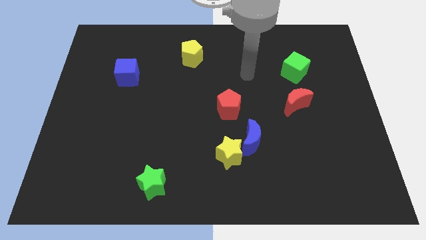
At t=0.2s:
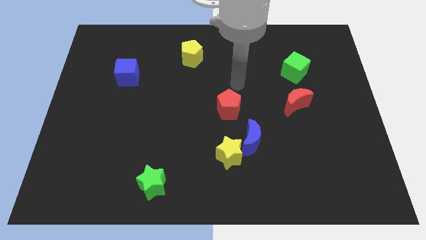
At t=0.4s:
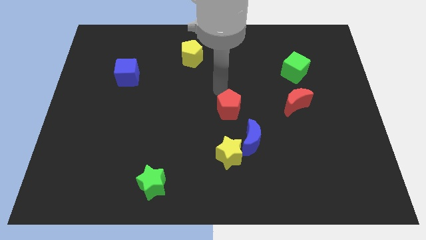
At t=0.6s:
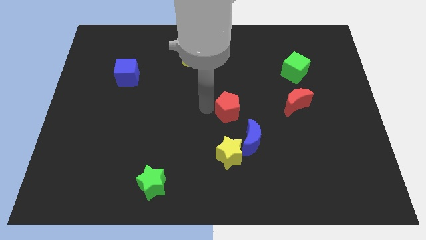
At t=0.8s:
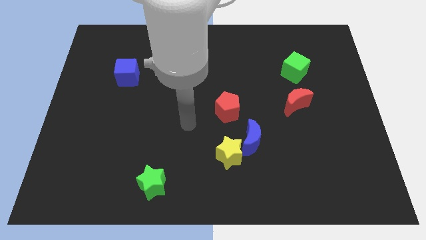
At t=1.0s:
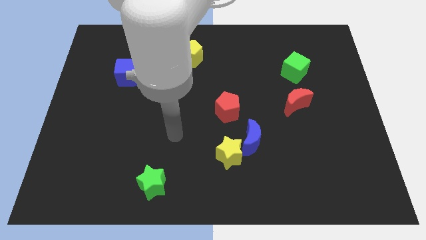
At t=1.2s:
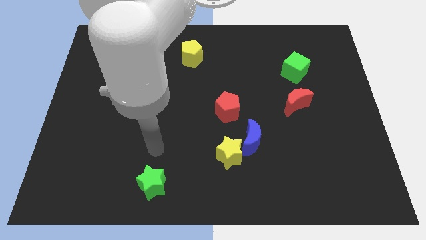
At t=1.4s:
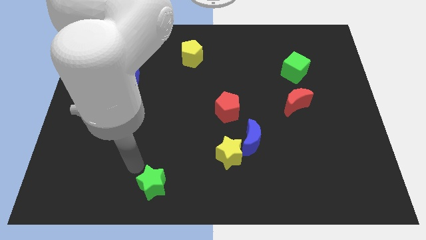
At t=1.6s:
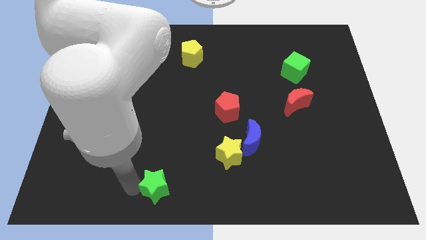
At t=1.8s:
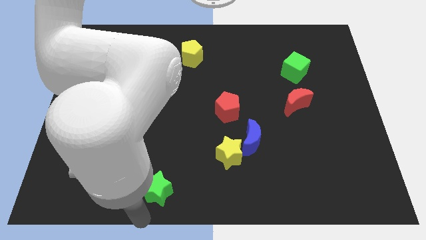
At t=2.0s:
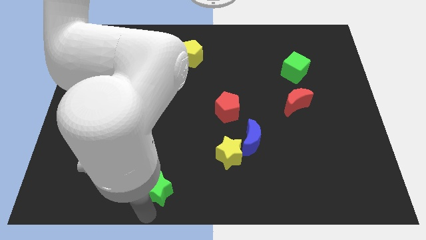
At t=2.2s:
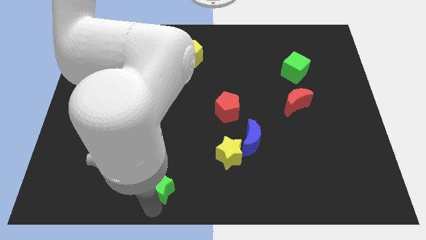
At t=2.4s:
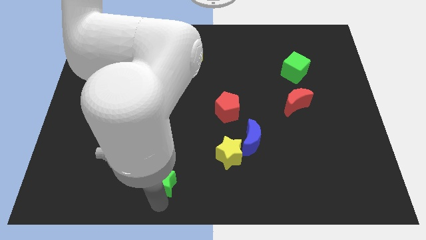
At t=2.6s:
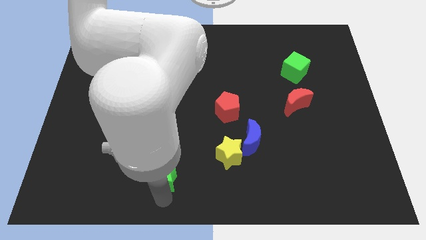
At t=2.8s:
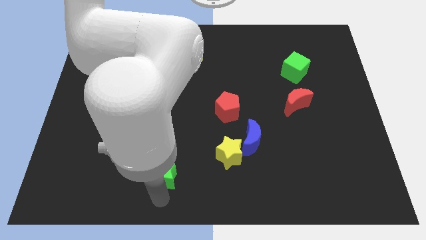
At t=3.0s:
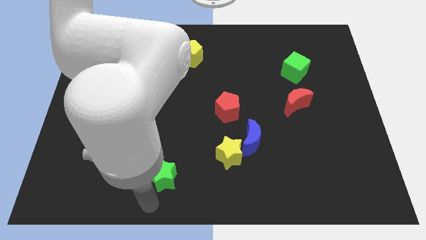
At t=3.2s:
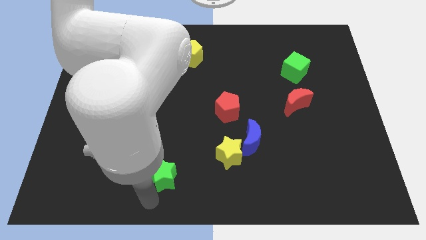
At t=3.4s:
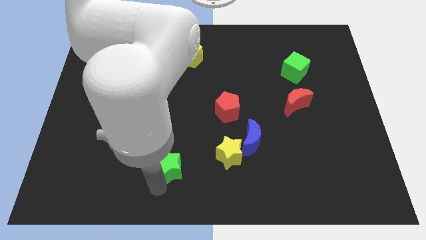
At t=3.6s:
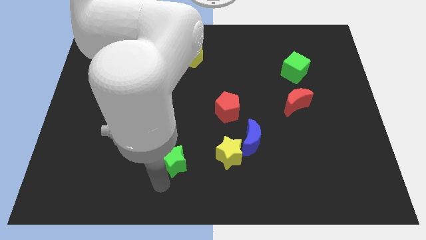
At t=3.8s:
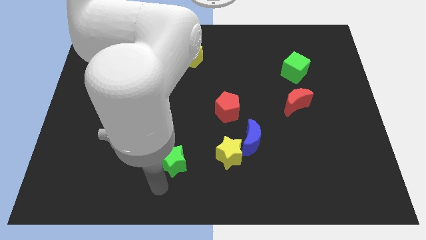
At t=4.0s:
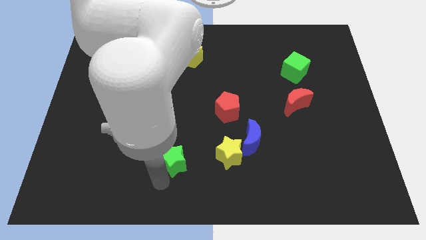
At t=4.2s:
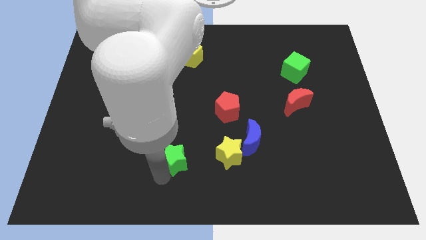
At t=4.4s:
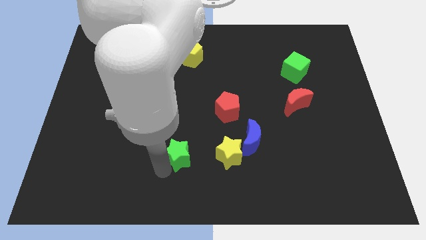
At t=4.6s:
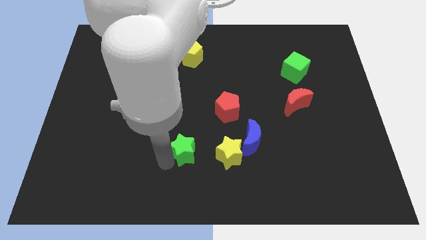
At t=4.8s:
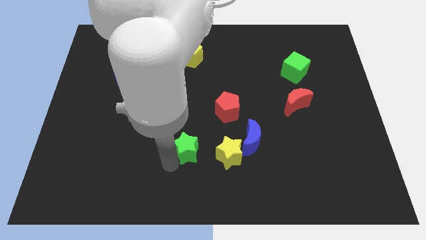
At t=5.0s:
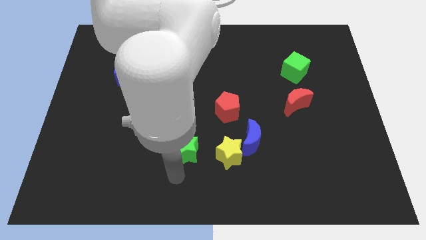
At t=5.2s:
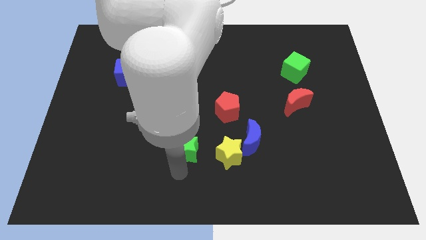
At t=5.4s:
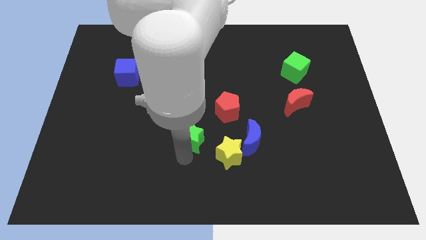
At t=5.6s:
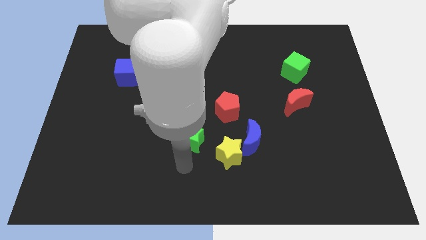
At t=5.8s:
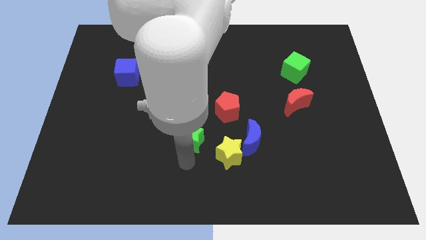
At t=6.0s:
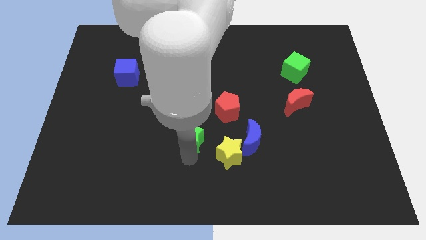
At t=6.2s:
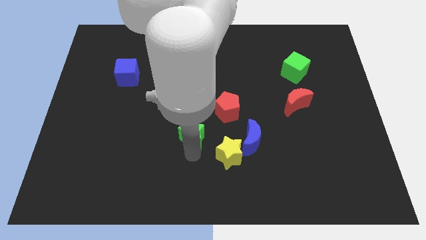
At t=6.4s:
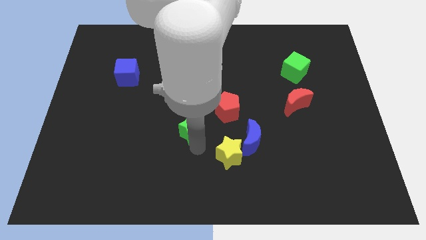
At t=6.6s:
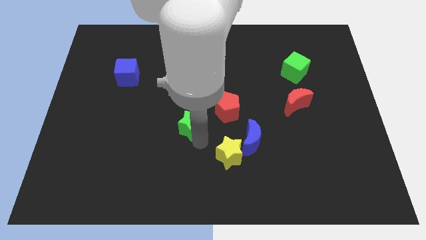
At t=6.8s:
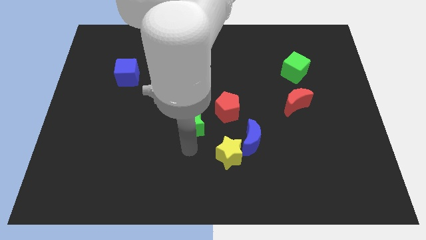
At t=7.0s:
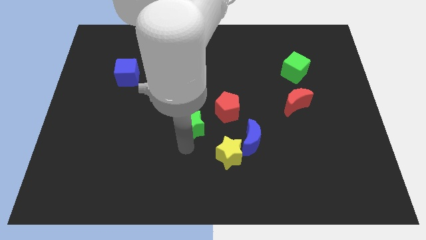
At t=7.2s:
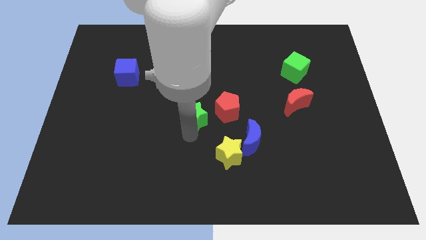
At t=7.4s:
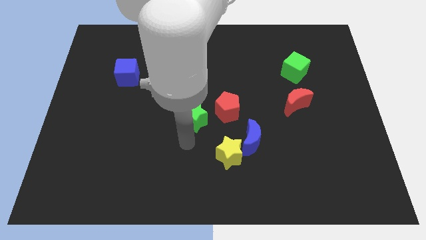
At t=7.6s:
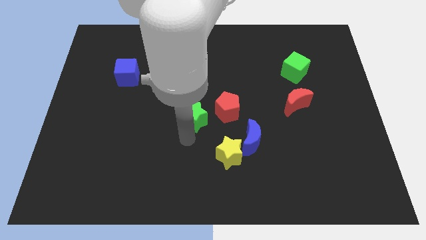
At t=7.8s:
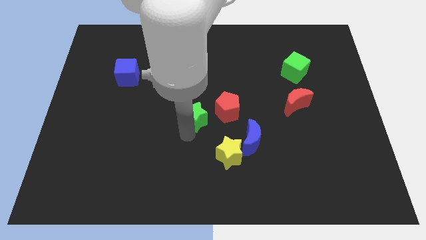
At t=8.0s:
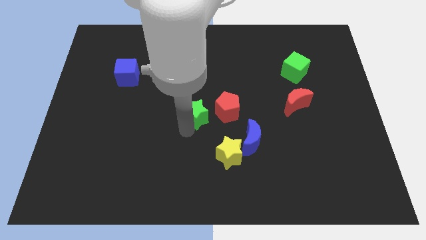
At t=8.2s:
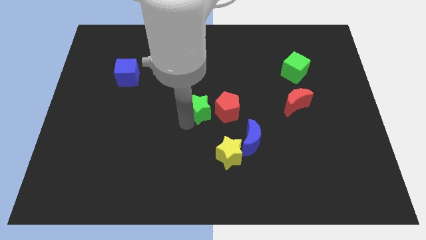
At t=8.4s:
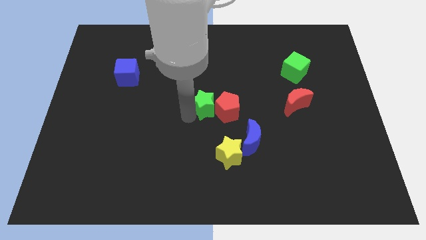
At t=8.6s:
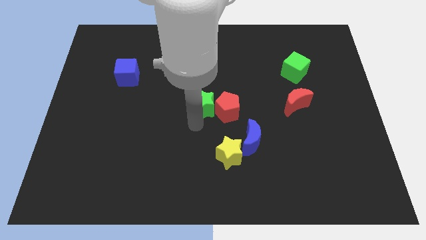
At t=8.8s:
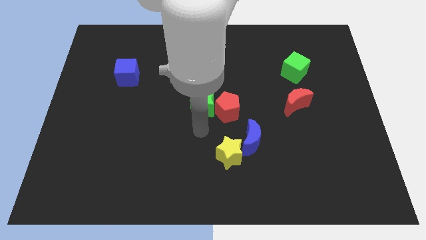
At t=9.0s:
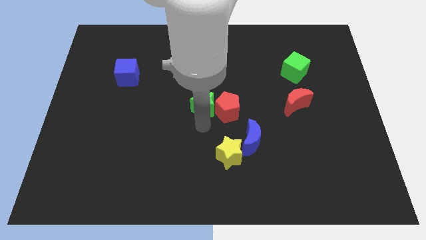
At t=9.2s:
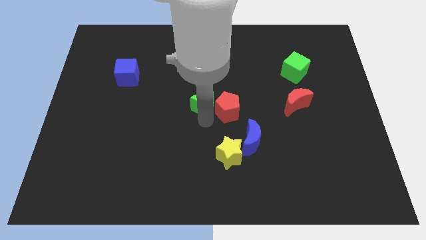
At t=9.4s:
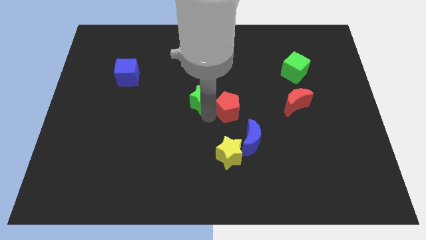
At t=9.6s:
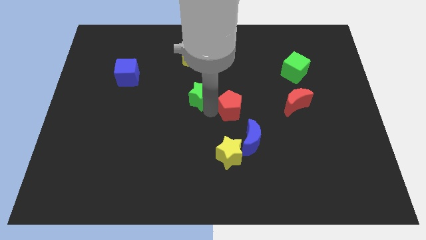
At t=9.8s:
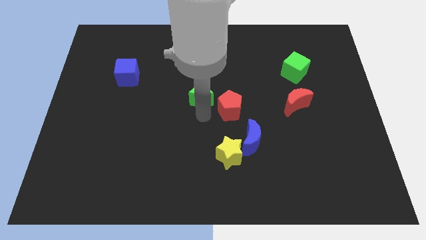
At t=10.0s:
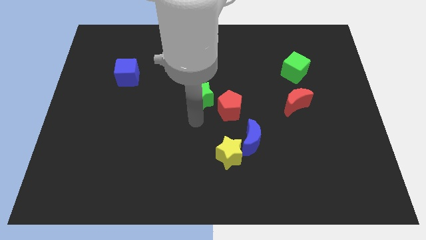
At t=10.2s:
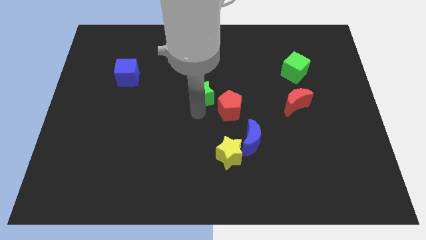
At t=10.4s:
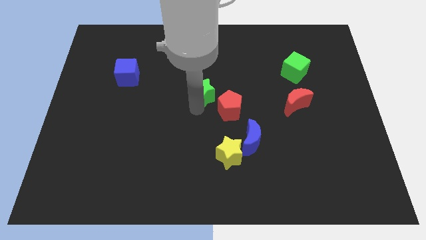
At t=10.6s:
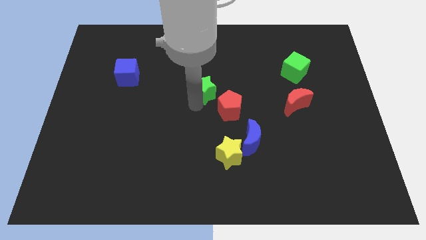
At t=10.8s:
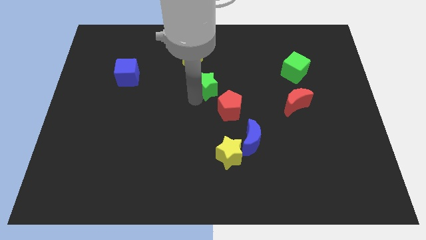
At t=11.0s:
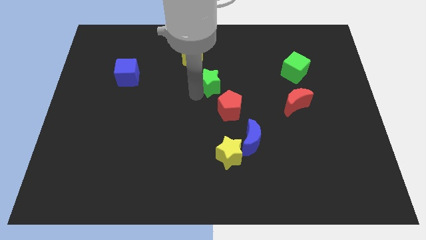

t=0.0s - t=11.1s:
put the green star diagonally down and to the right of the yellow pentagon

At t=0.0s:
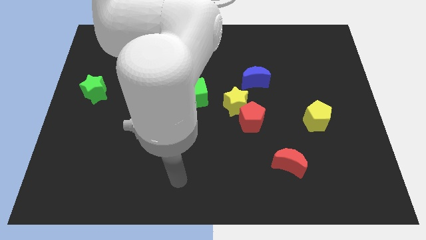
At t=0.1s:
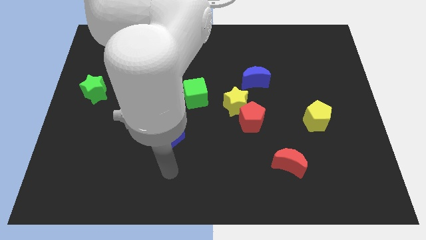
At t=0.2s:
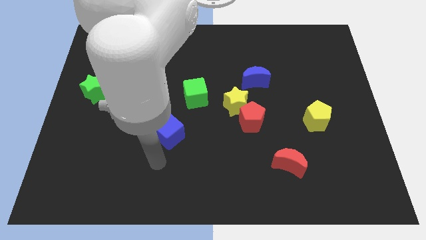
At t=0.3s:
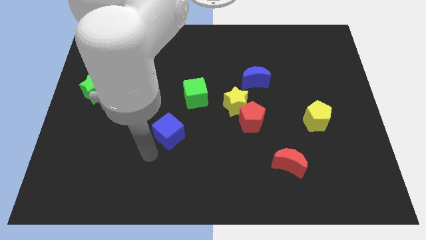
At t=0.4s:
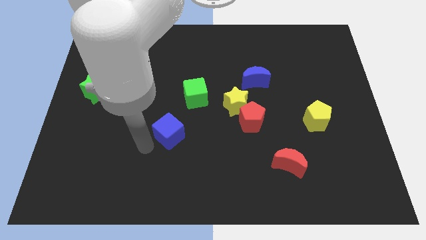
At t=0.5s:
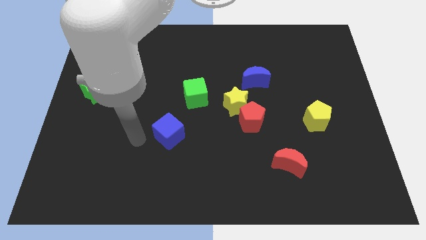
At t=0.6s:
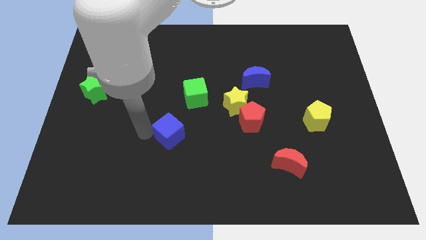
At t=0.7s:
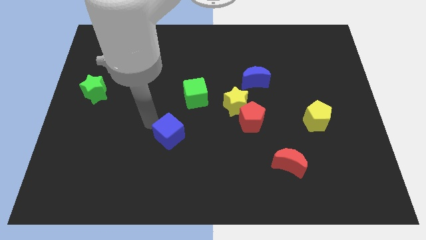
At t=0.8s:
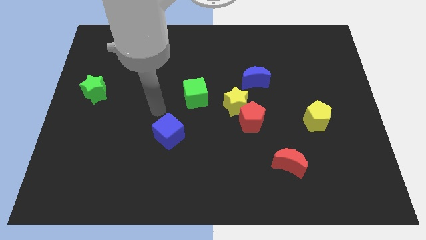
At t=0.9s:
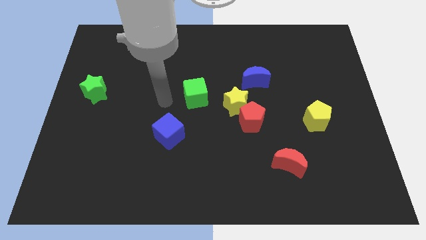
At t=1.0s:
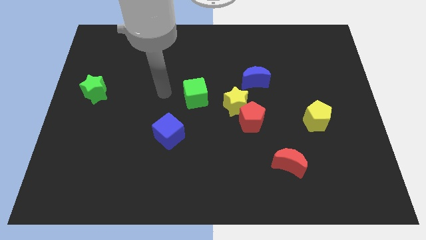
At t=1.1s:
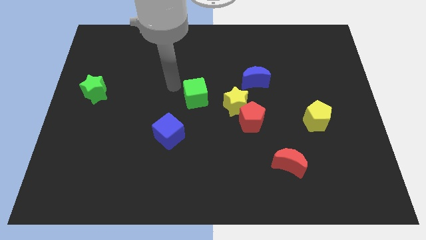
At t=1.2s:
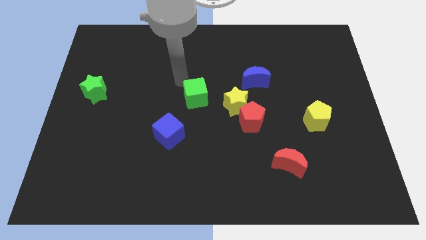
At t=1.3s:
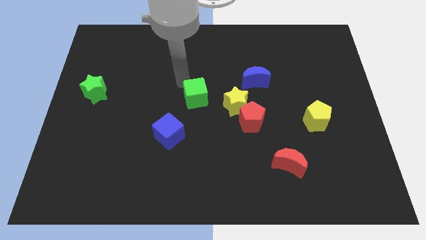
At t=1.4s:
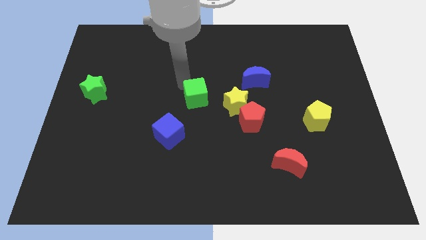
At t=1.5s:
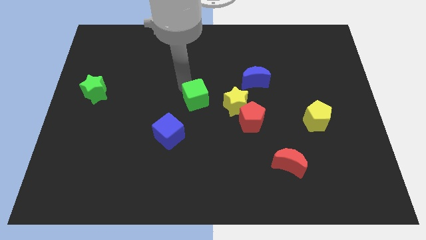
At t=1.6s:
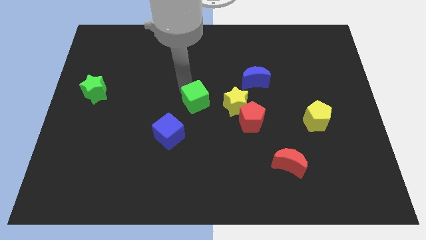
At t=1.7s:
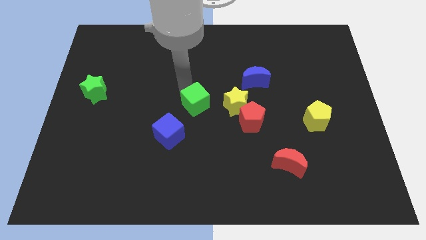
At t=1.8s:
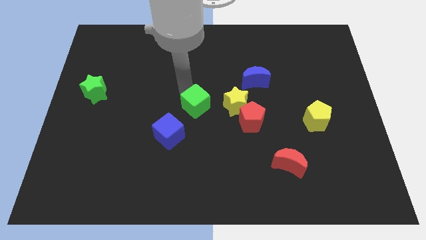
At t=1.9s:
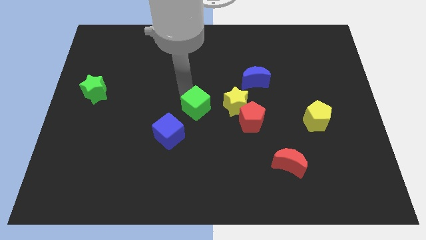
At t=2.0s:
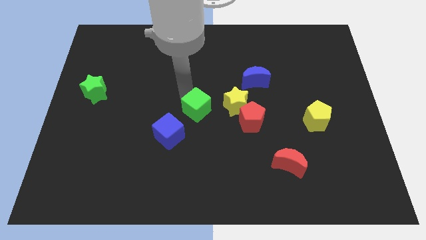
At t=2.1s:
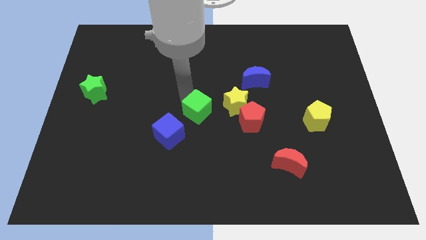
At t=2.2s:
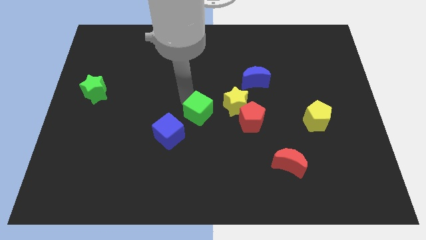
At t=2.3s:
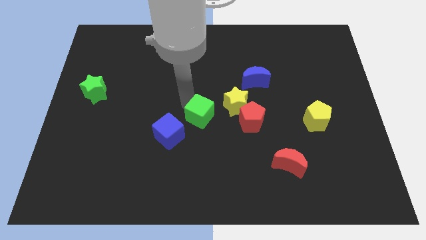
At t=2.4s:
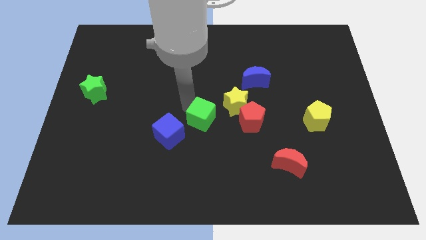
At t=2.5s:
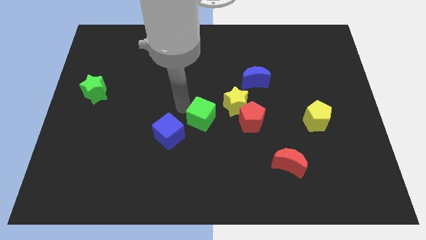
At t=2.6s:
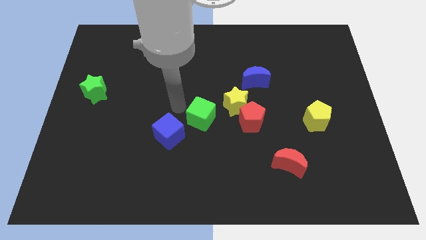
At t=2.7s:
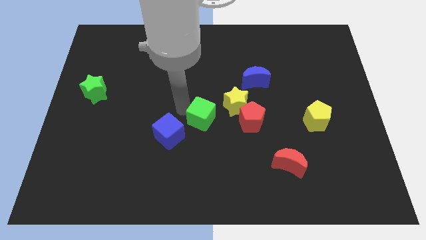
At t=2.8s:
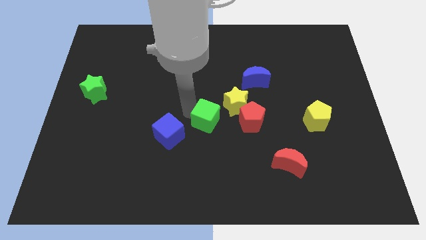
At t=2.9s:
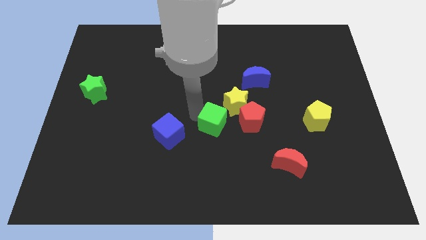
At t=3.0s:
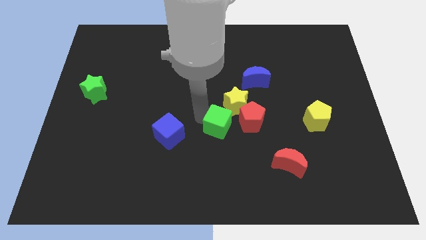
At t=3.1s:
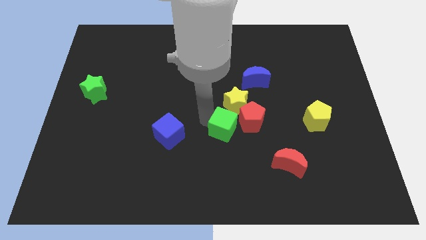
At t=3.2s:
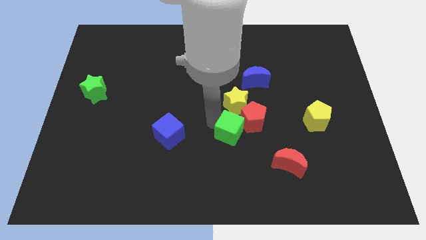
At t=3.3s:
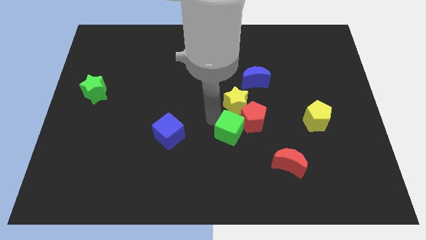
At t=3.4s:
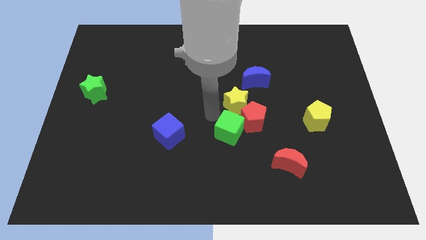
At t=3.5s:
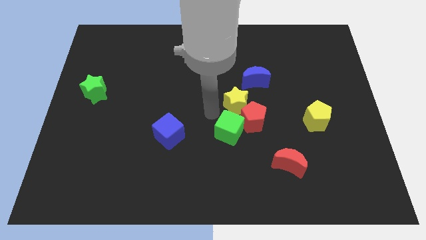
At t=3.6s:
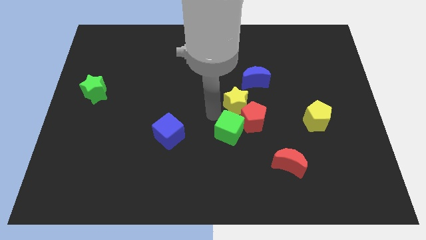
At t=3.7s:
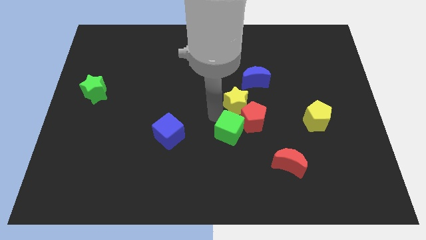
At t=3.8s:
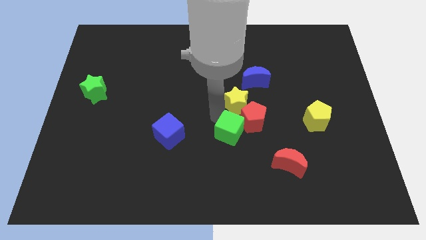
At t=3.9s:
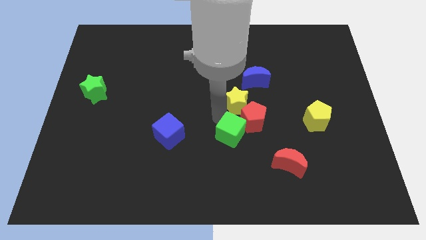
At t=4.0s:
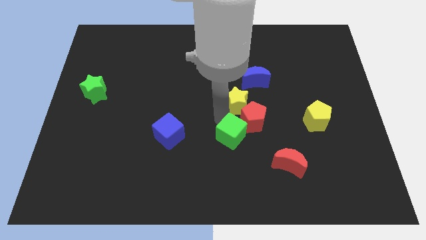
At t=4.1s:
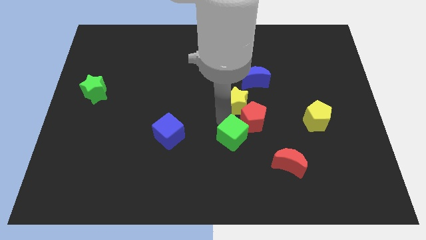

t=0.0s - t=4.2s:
put the green cube below the red pentagon
